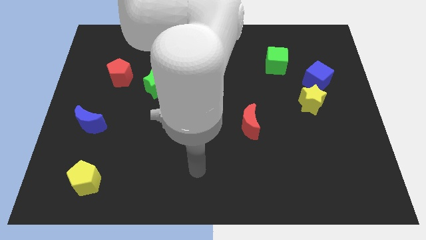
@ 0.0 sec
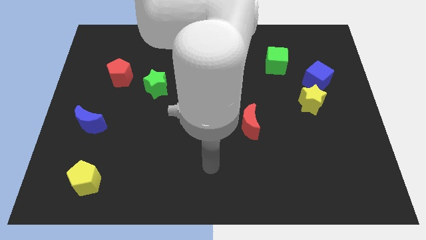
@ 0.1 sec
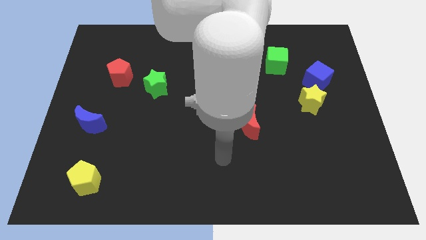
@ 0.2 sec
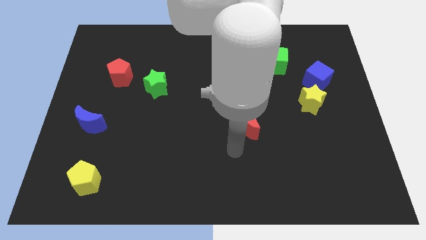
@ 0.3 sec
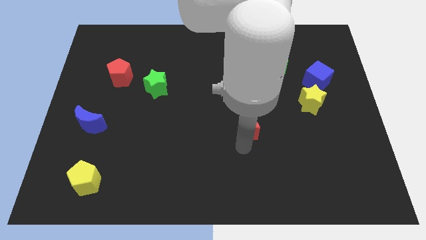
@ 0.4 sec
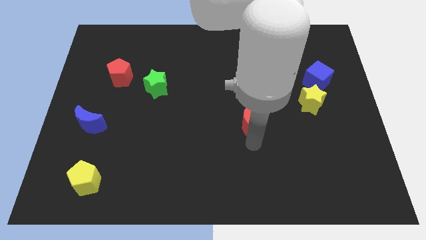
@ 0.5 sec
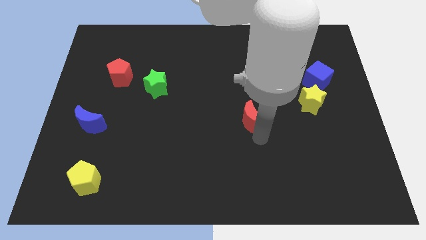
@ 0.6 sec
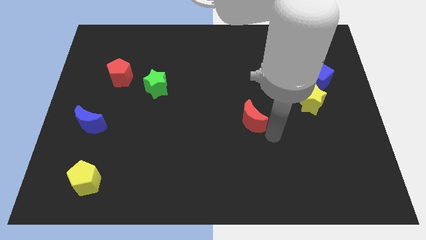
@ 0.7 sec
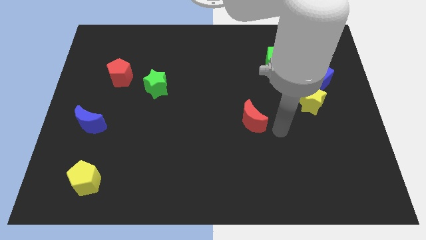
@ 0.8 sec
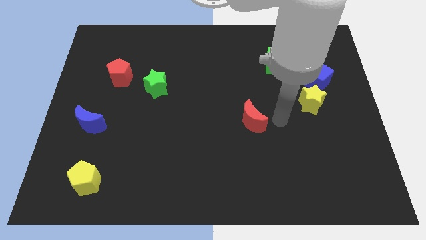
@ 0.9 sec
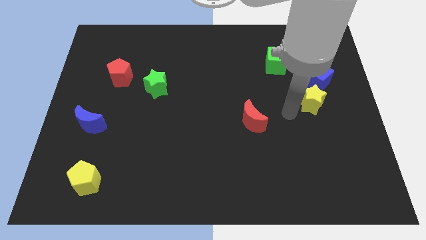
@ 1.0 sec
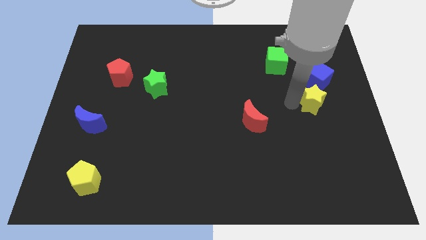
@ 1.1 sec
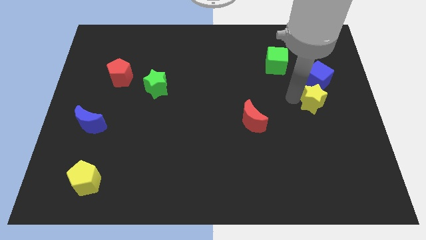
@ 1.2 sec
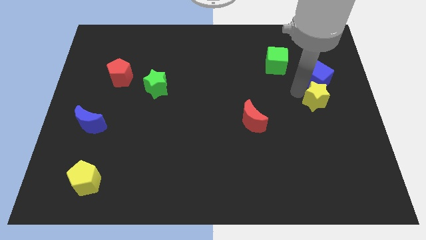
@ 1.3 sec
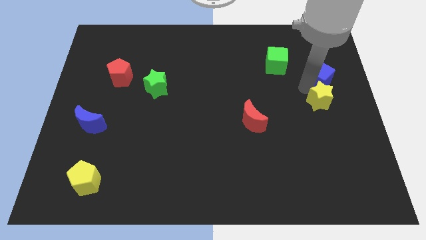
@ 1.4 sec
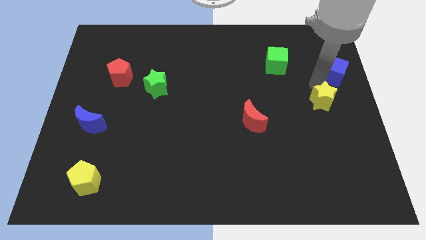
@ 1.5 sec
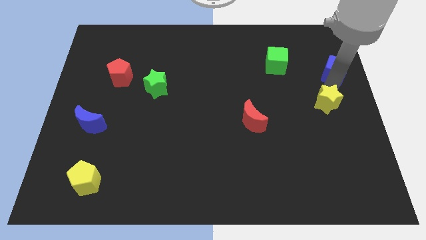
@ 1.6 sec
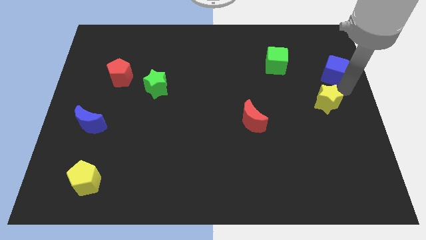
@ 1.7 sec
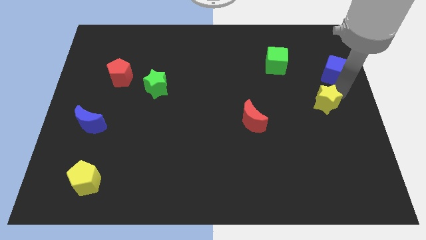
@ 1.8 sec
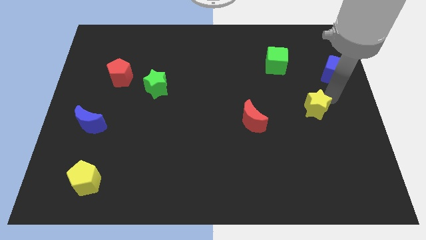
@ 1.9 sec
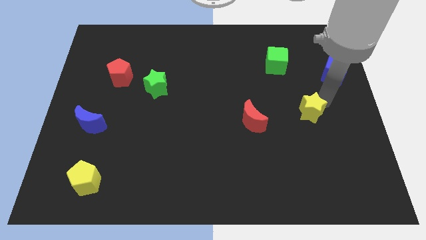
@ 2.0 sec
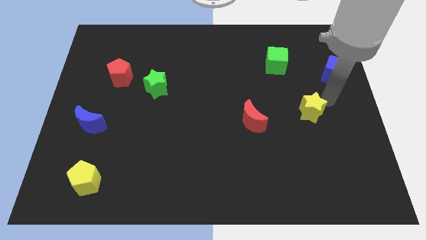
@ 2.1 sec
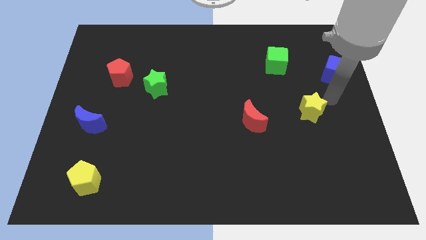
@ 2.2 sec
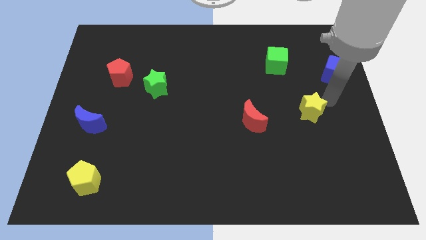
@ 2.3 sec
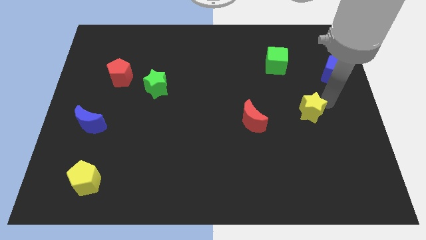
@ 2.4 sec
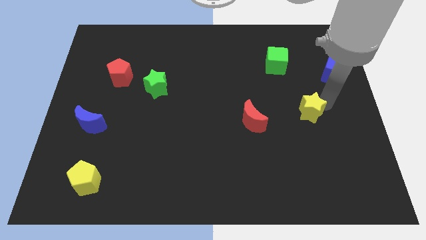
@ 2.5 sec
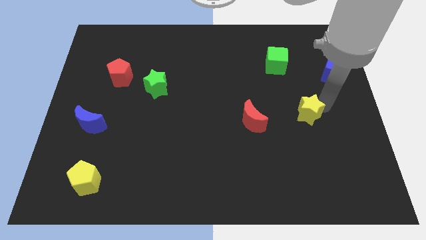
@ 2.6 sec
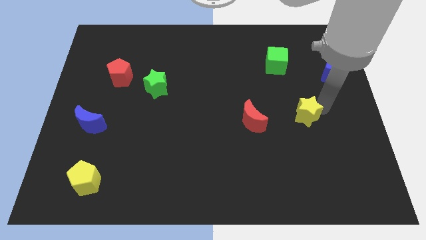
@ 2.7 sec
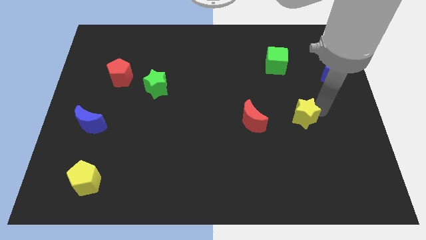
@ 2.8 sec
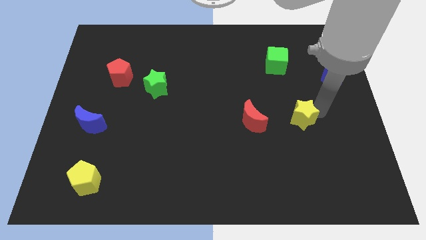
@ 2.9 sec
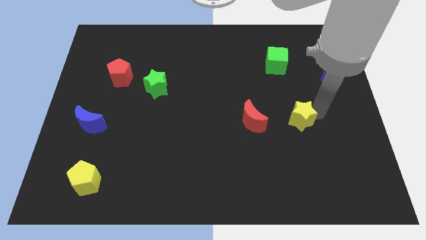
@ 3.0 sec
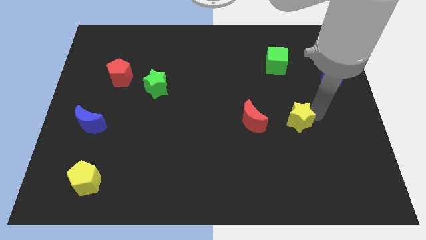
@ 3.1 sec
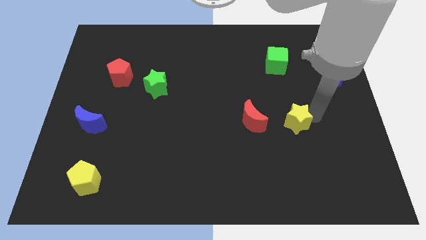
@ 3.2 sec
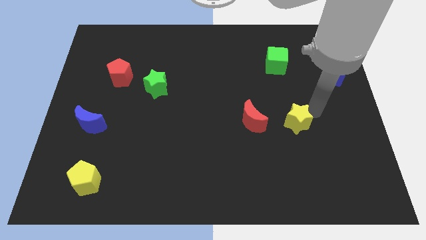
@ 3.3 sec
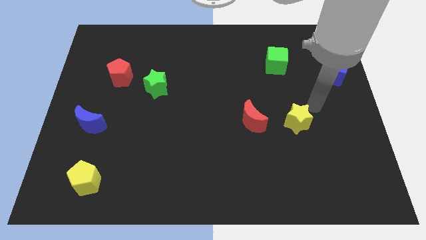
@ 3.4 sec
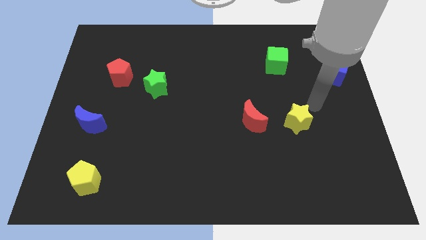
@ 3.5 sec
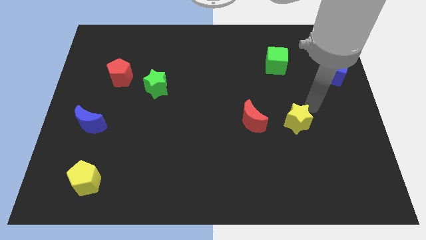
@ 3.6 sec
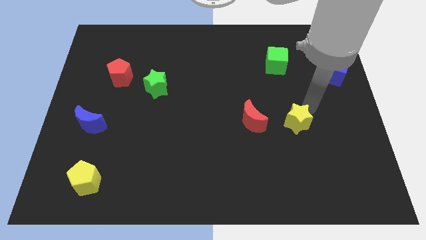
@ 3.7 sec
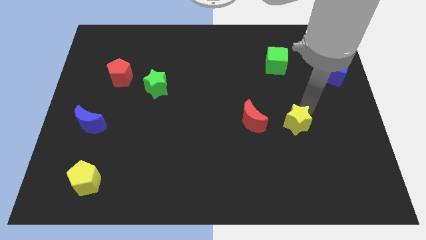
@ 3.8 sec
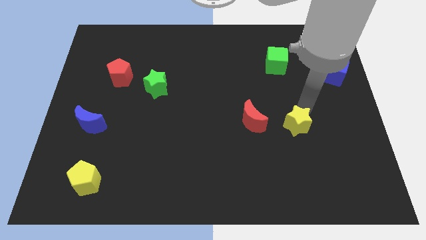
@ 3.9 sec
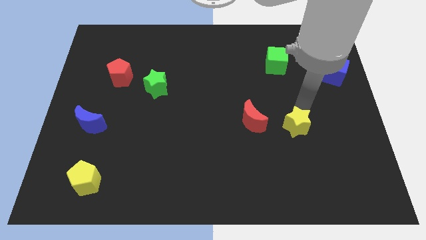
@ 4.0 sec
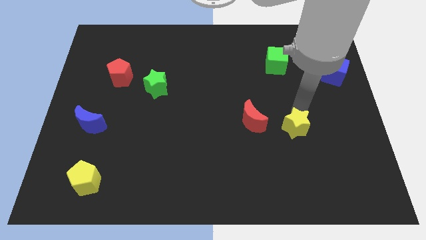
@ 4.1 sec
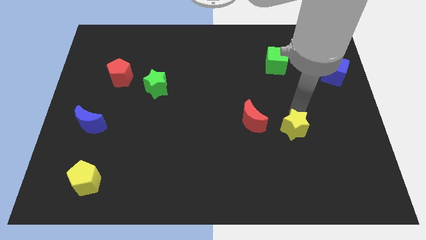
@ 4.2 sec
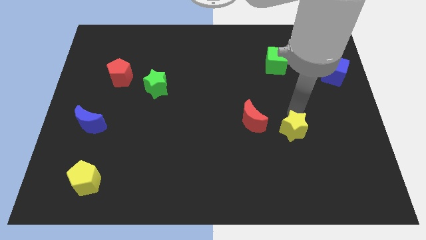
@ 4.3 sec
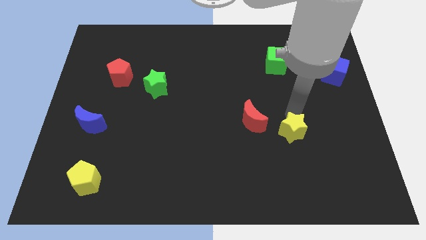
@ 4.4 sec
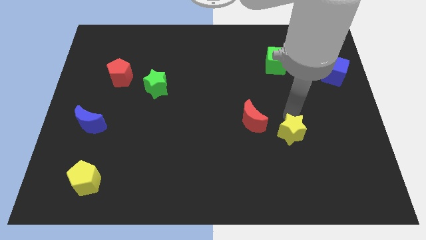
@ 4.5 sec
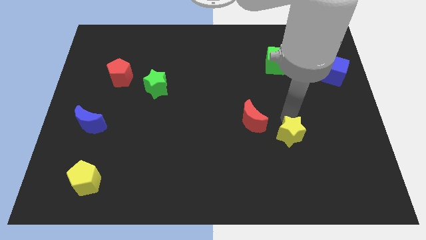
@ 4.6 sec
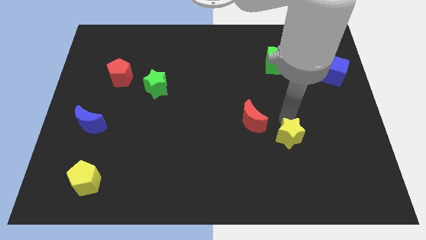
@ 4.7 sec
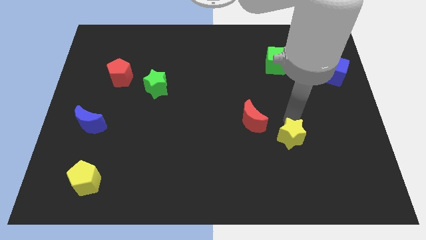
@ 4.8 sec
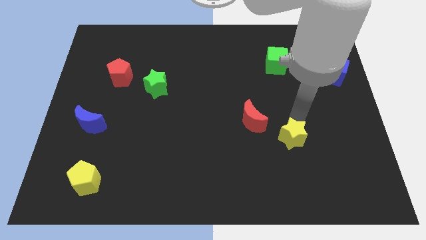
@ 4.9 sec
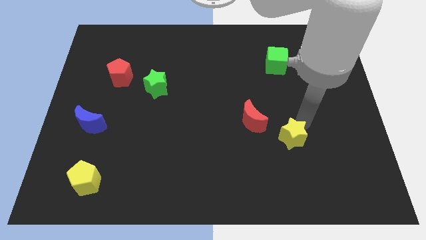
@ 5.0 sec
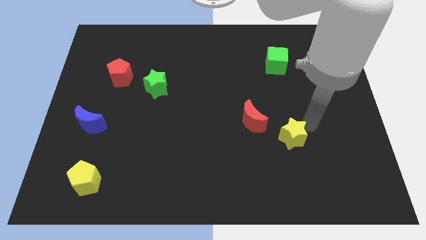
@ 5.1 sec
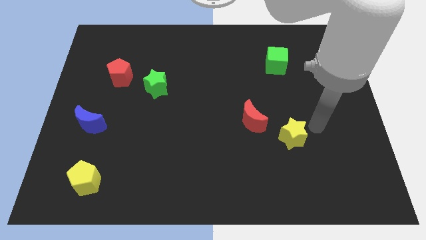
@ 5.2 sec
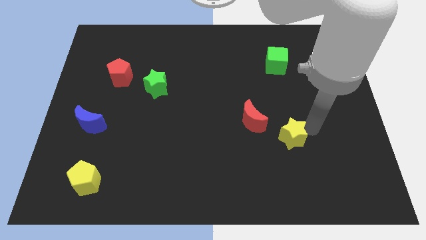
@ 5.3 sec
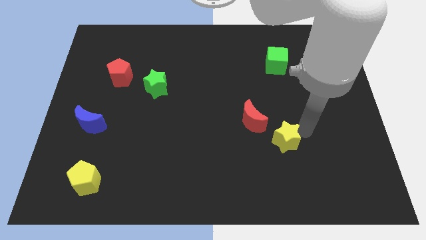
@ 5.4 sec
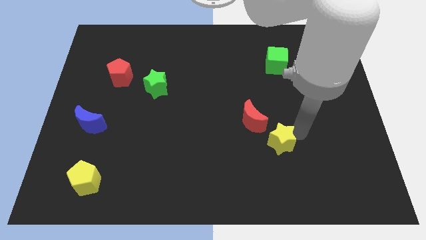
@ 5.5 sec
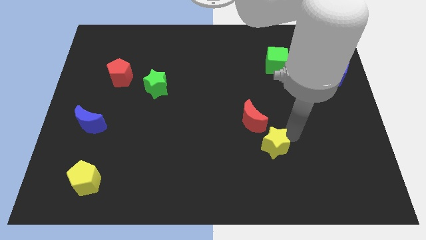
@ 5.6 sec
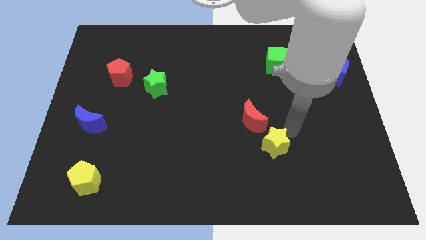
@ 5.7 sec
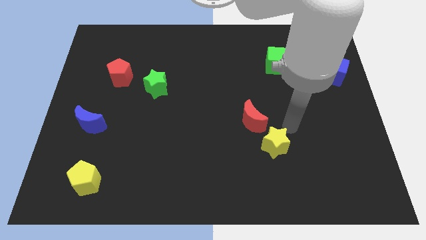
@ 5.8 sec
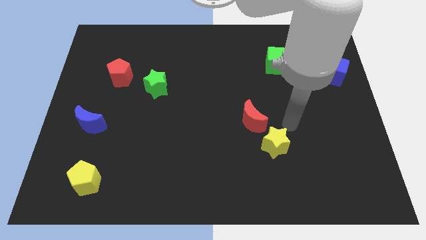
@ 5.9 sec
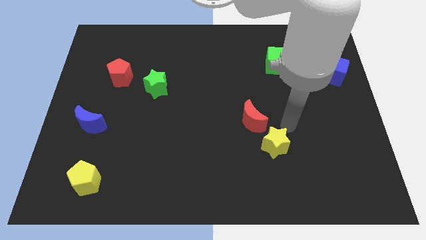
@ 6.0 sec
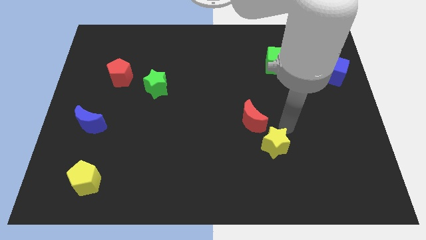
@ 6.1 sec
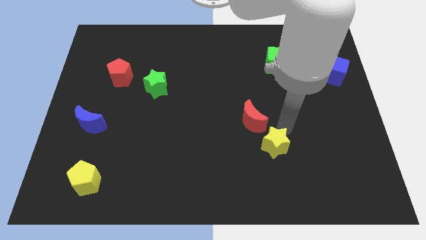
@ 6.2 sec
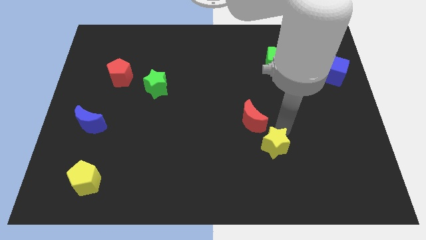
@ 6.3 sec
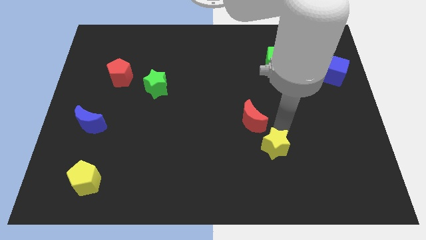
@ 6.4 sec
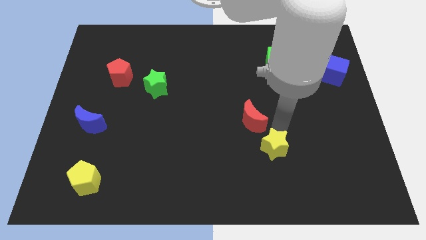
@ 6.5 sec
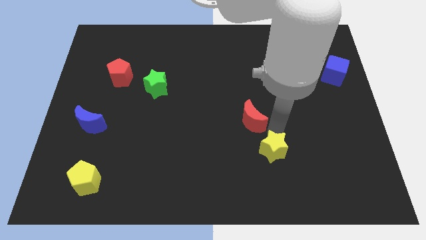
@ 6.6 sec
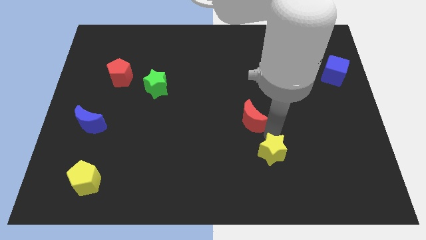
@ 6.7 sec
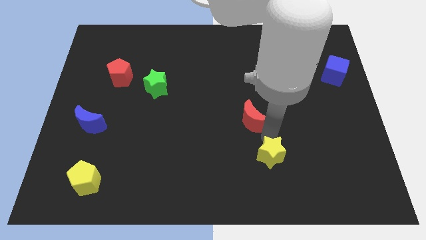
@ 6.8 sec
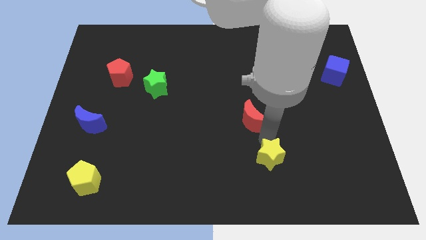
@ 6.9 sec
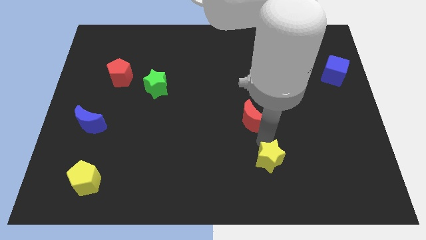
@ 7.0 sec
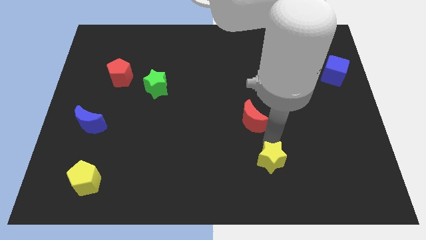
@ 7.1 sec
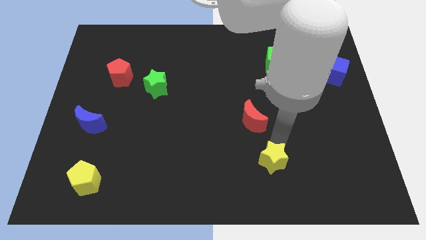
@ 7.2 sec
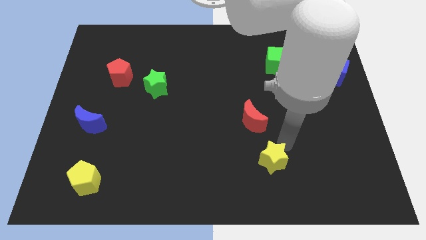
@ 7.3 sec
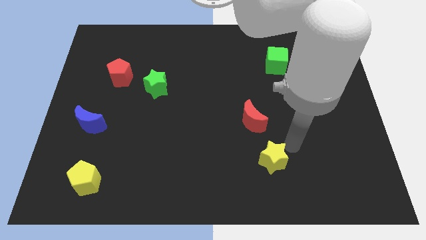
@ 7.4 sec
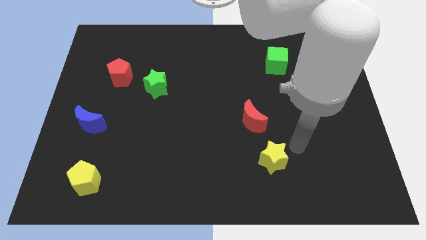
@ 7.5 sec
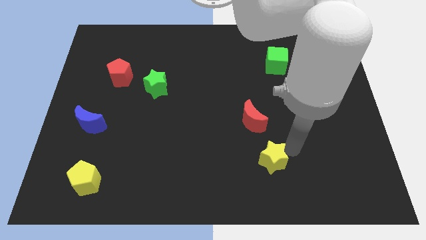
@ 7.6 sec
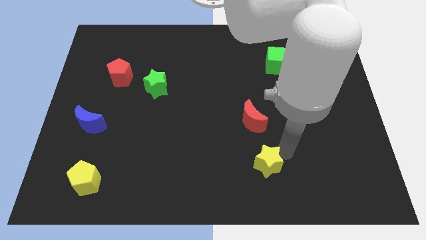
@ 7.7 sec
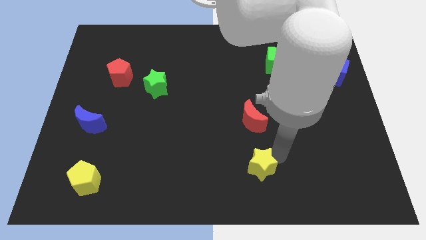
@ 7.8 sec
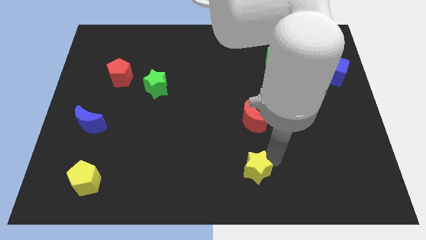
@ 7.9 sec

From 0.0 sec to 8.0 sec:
push the yellow star to the bottom side
